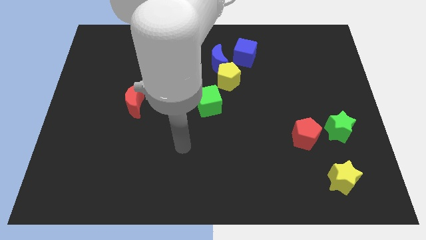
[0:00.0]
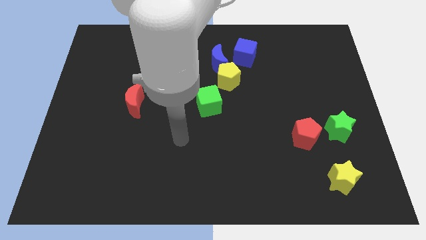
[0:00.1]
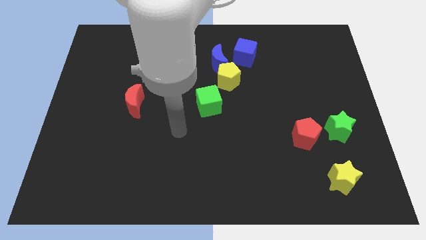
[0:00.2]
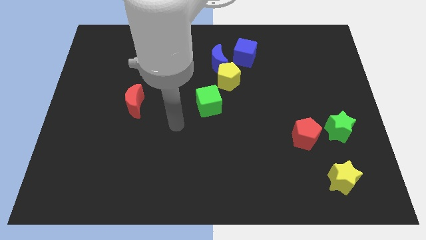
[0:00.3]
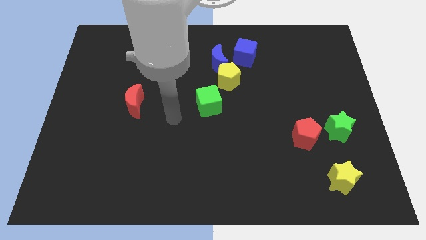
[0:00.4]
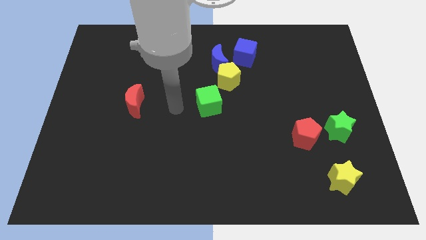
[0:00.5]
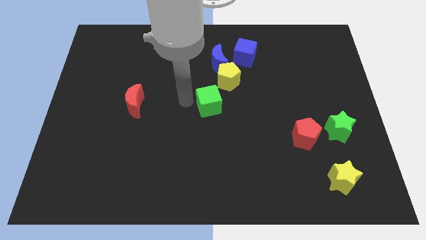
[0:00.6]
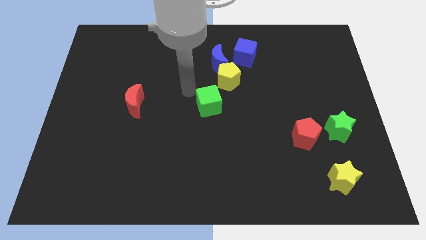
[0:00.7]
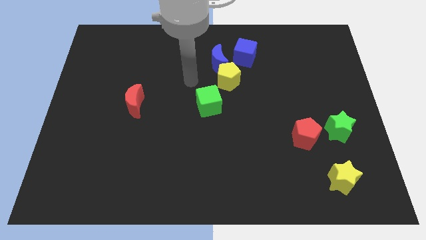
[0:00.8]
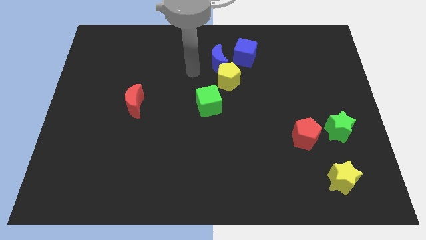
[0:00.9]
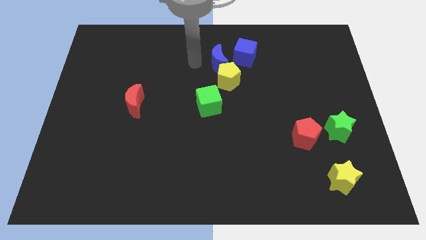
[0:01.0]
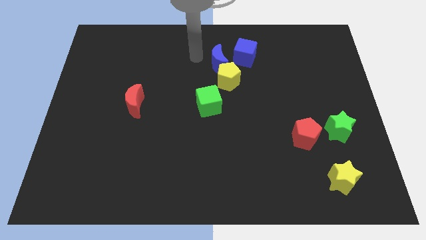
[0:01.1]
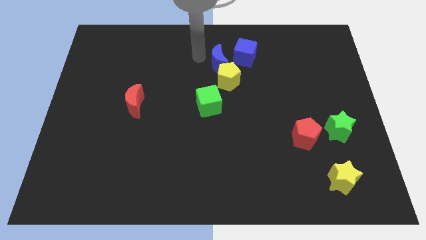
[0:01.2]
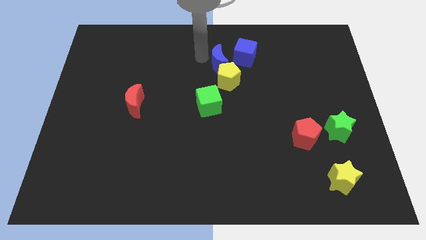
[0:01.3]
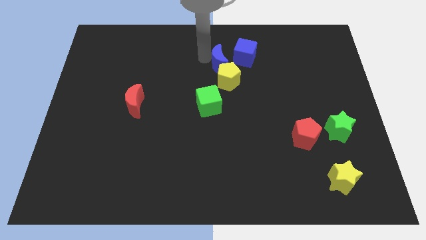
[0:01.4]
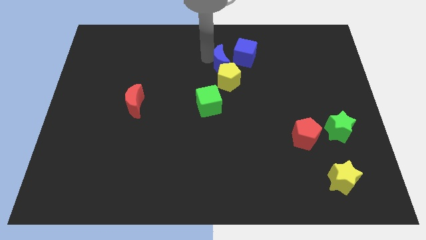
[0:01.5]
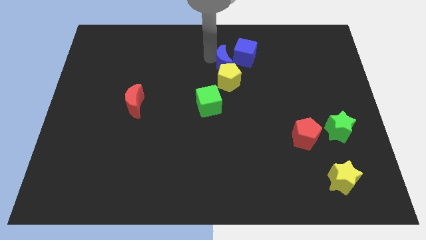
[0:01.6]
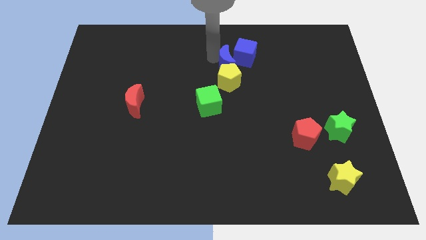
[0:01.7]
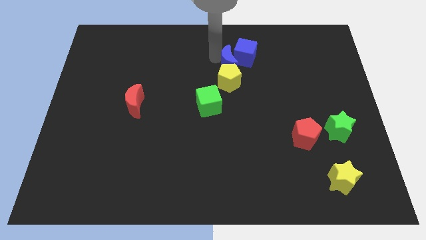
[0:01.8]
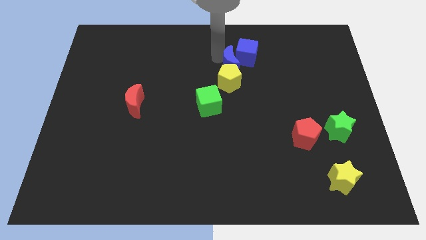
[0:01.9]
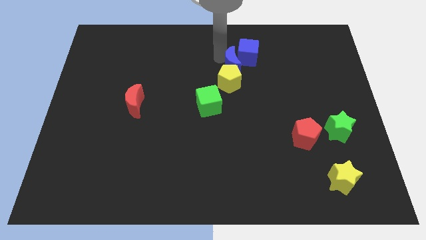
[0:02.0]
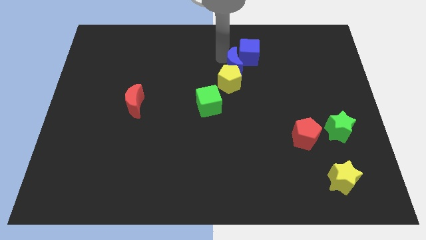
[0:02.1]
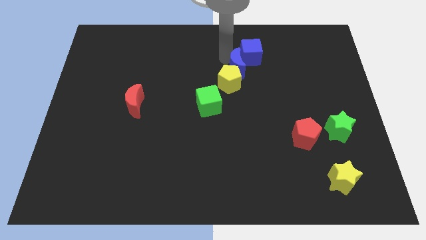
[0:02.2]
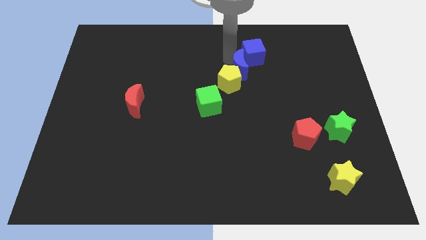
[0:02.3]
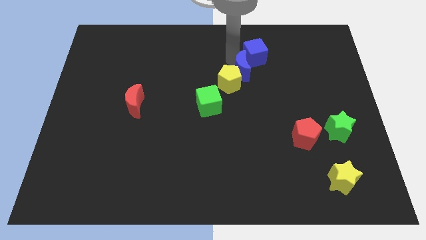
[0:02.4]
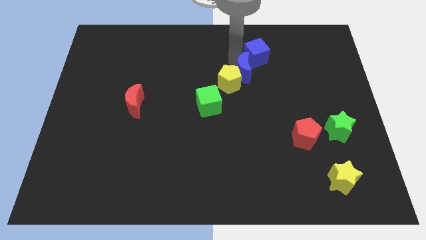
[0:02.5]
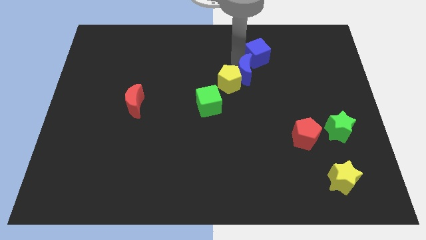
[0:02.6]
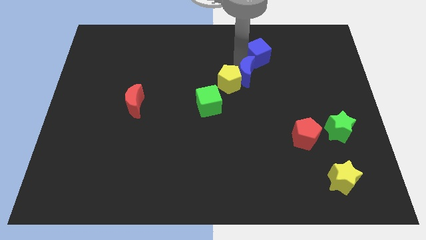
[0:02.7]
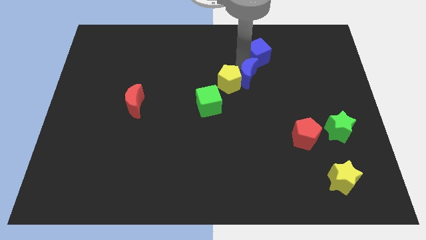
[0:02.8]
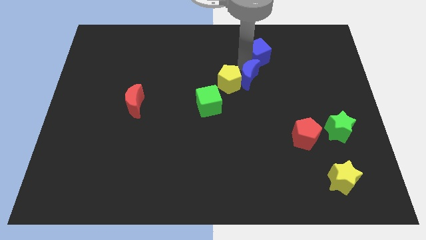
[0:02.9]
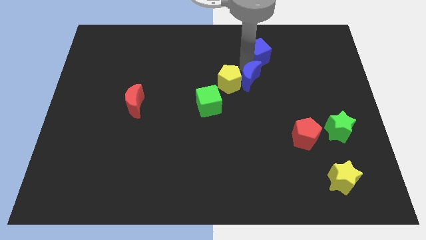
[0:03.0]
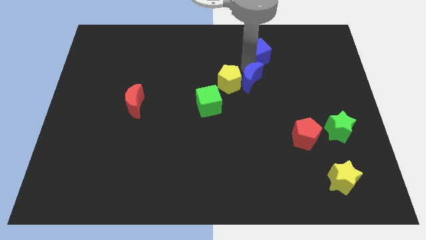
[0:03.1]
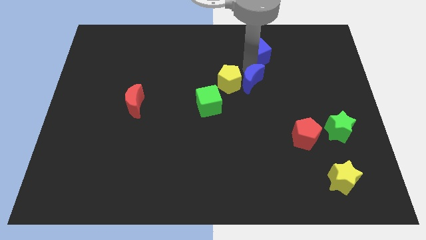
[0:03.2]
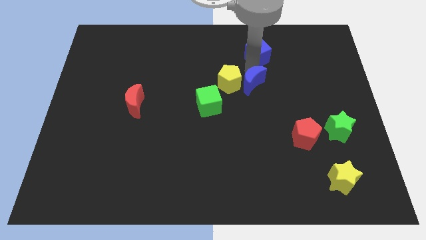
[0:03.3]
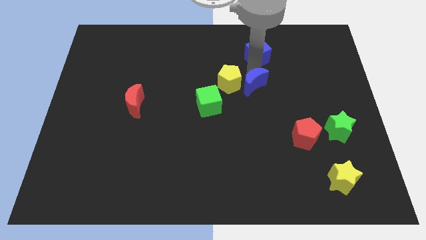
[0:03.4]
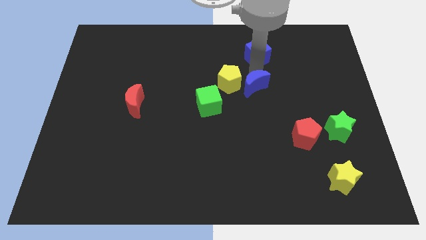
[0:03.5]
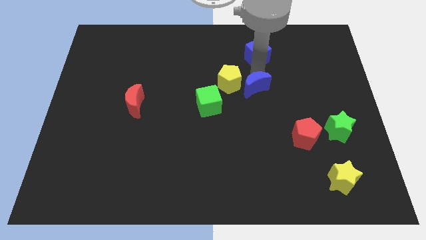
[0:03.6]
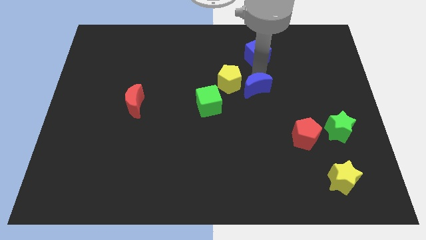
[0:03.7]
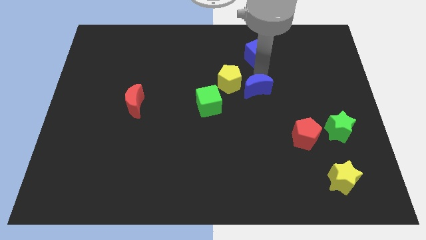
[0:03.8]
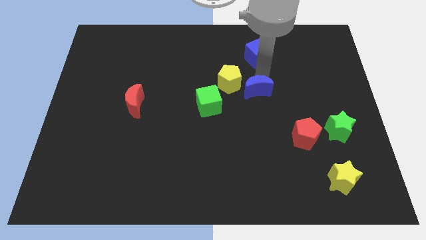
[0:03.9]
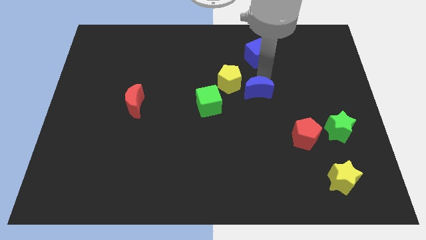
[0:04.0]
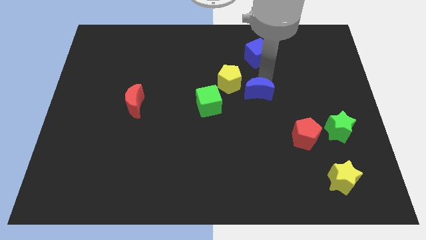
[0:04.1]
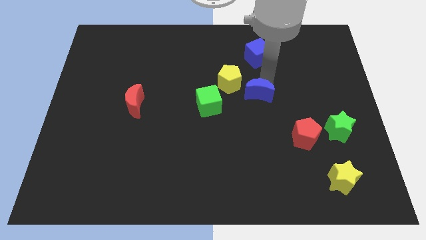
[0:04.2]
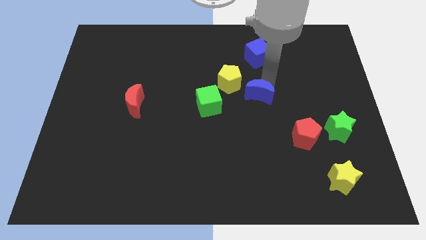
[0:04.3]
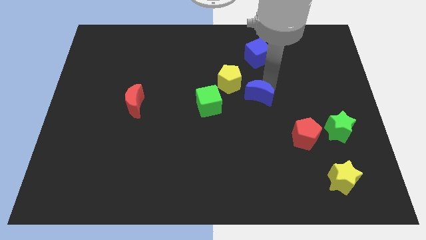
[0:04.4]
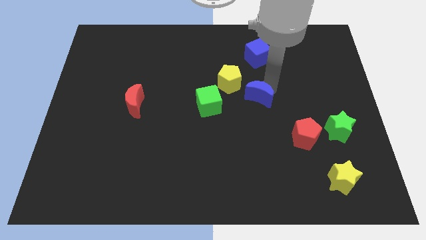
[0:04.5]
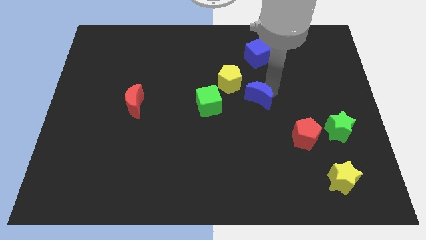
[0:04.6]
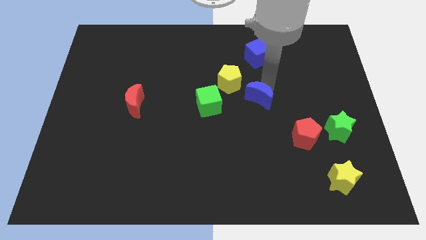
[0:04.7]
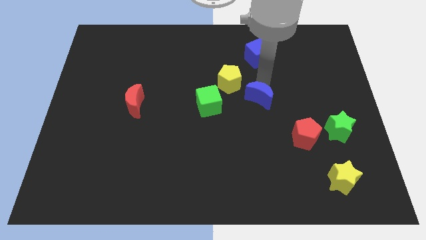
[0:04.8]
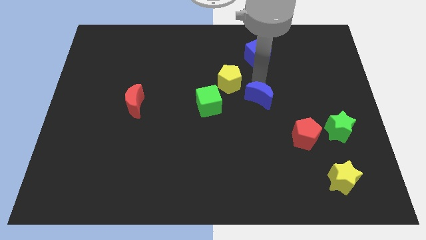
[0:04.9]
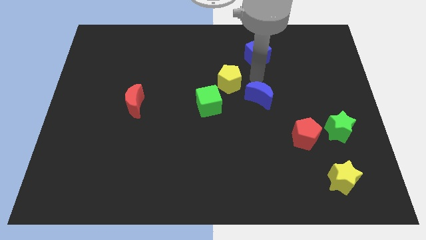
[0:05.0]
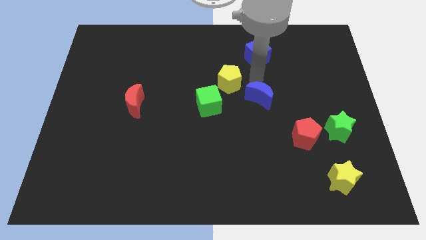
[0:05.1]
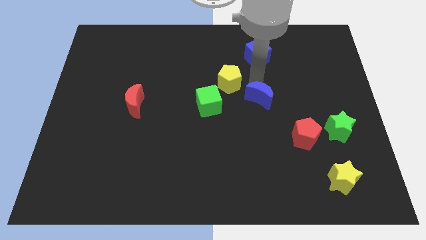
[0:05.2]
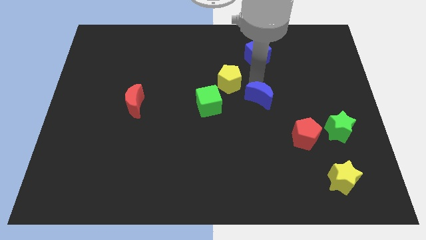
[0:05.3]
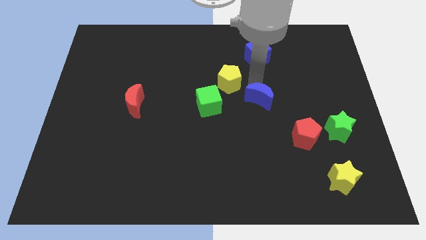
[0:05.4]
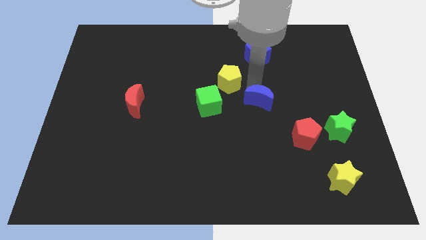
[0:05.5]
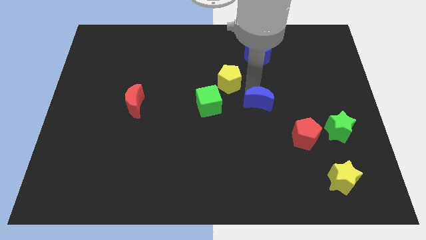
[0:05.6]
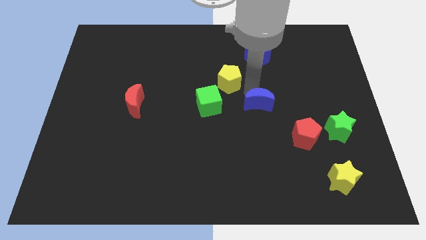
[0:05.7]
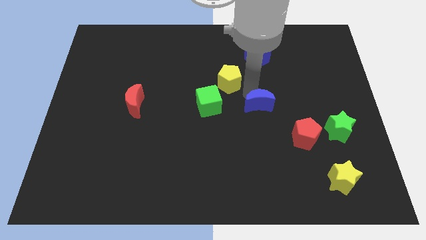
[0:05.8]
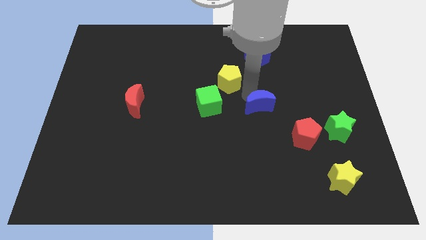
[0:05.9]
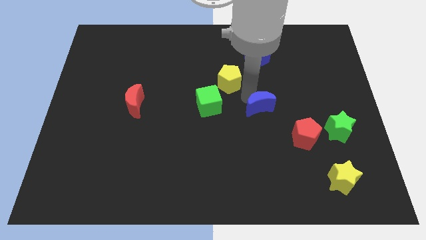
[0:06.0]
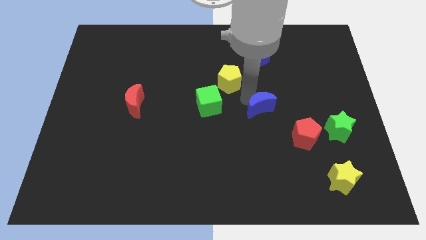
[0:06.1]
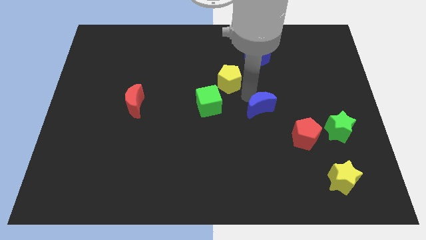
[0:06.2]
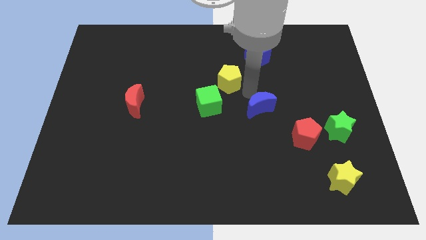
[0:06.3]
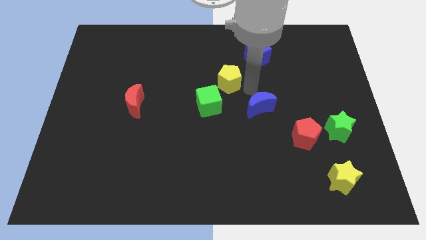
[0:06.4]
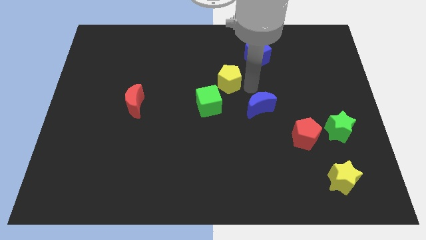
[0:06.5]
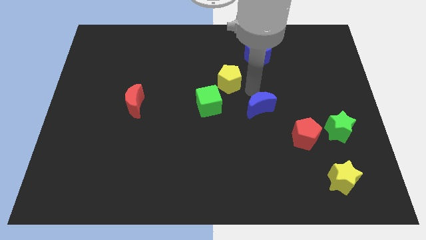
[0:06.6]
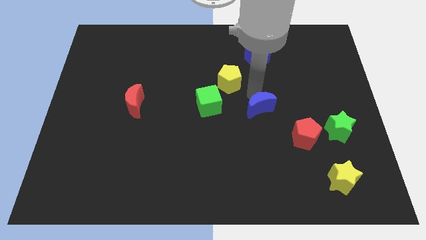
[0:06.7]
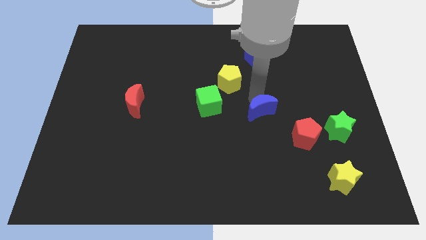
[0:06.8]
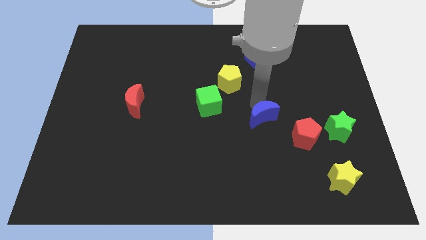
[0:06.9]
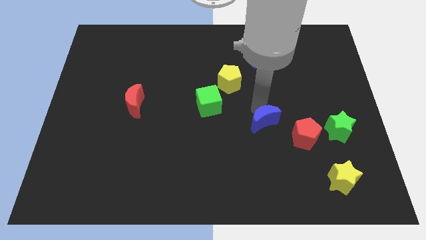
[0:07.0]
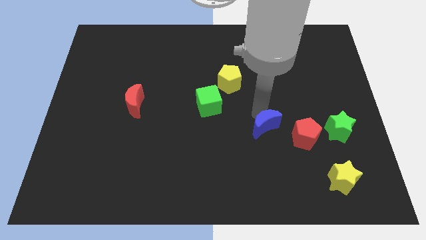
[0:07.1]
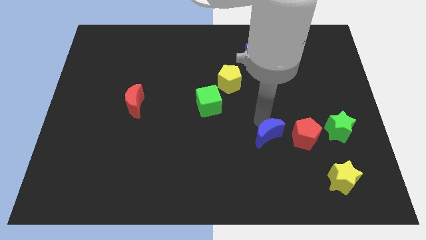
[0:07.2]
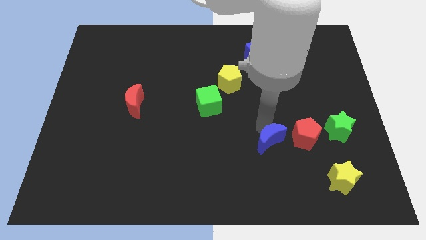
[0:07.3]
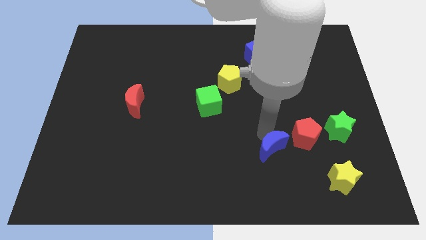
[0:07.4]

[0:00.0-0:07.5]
put the blue moon to the bottom left of the red pentagon

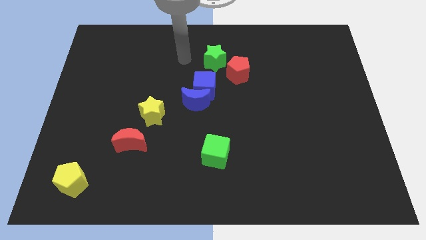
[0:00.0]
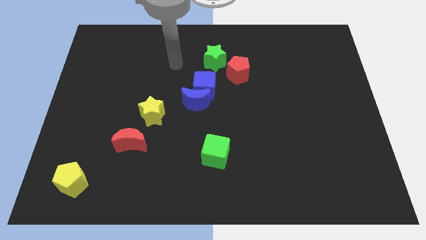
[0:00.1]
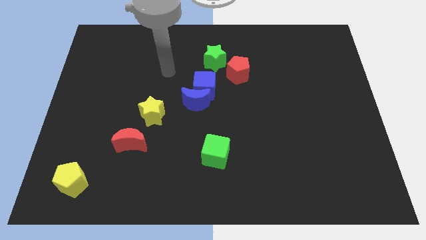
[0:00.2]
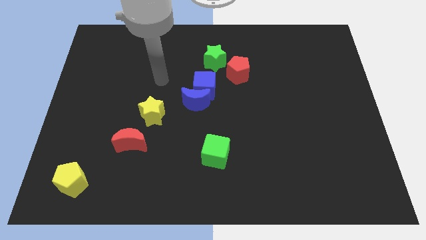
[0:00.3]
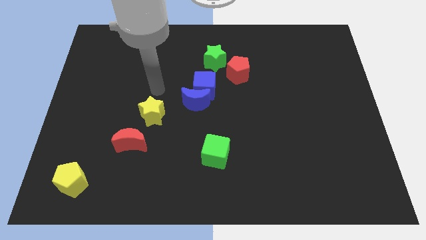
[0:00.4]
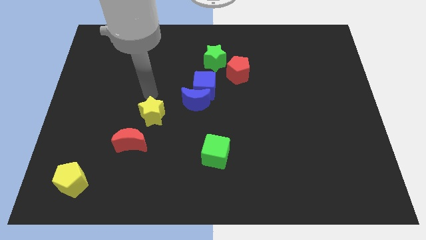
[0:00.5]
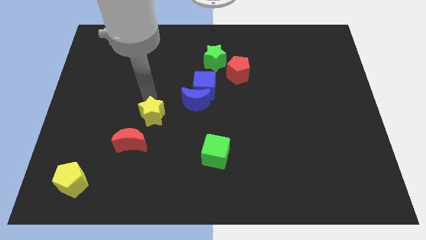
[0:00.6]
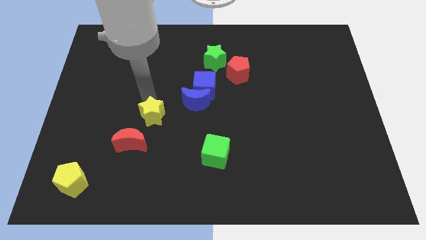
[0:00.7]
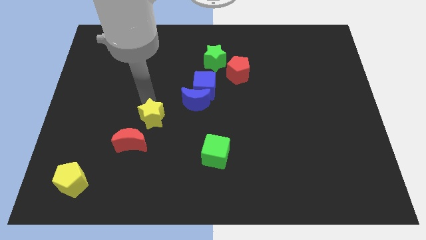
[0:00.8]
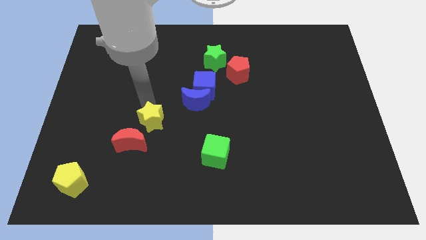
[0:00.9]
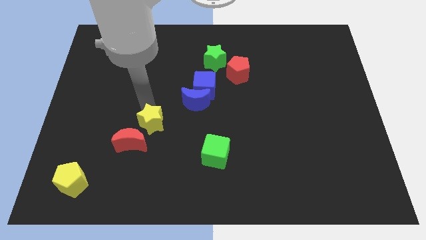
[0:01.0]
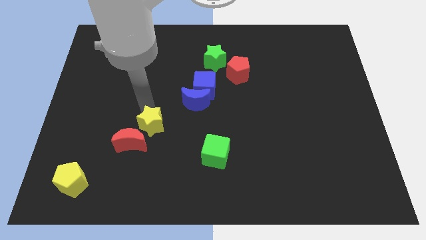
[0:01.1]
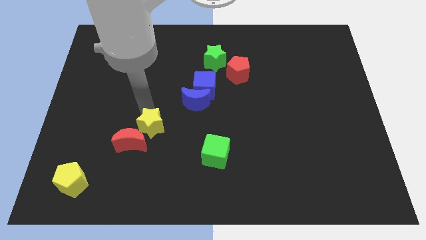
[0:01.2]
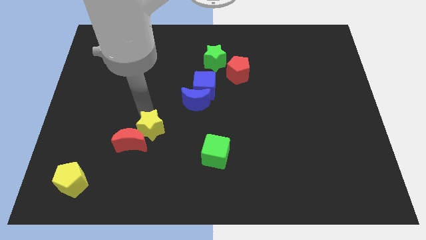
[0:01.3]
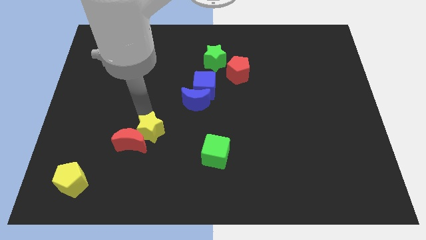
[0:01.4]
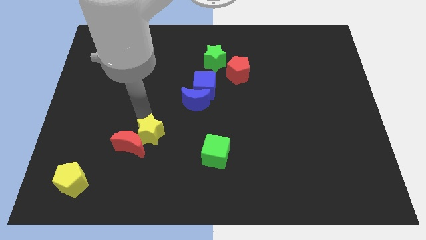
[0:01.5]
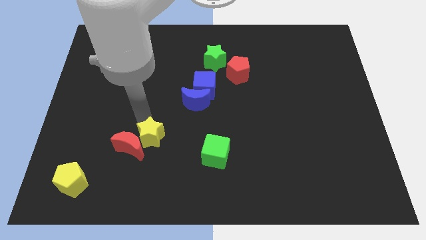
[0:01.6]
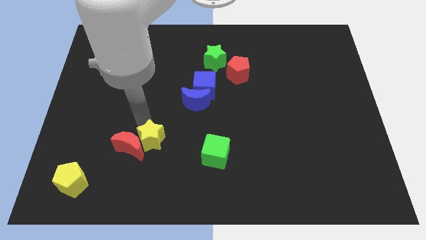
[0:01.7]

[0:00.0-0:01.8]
put the yellow star left of the green cube
